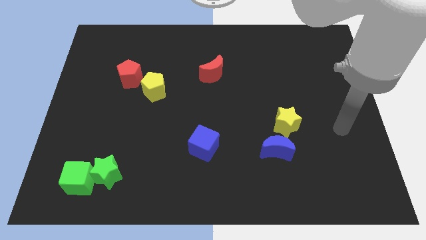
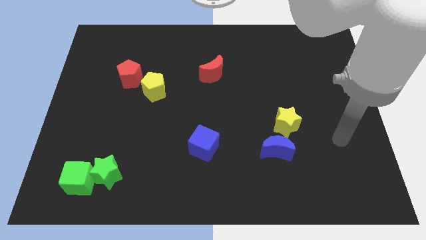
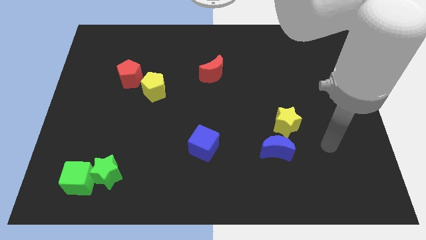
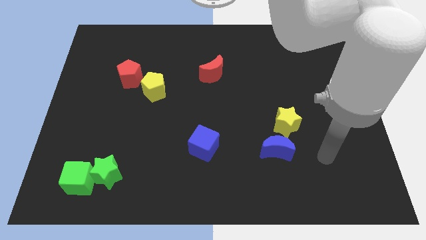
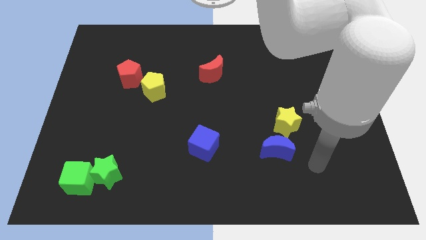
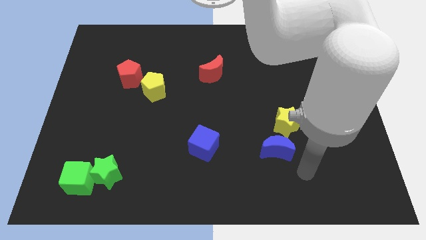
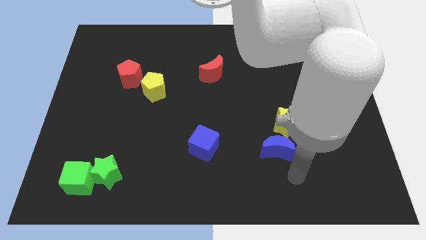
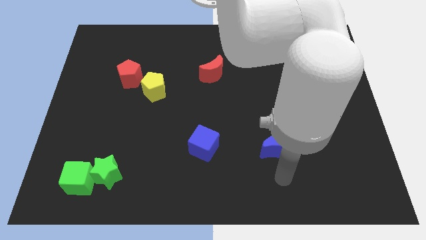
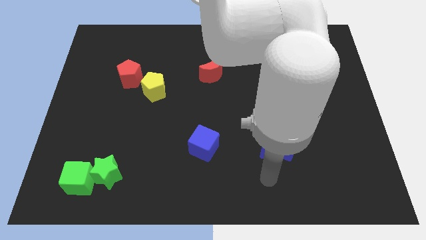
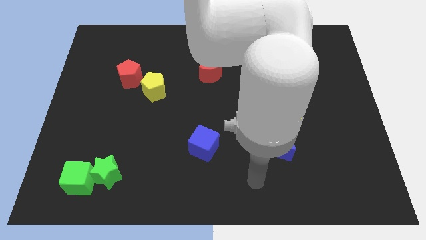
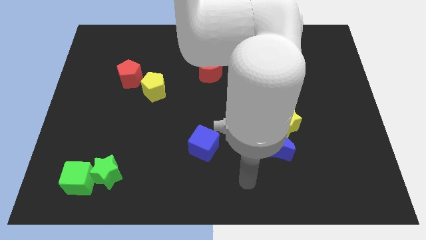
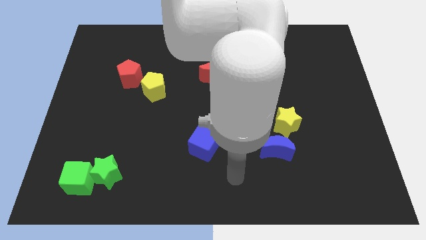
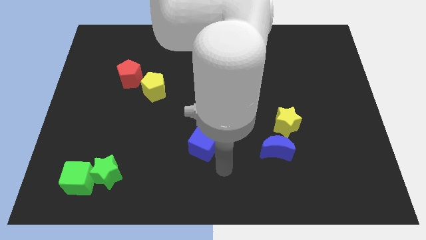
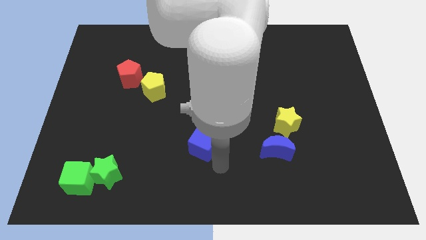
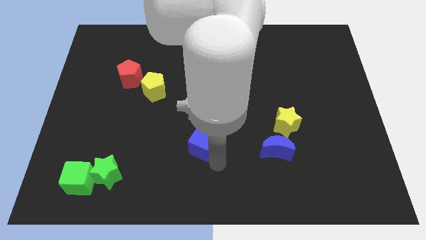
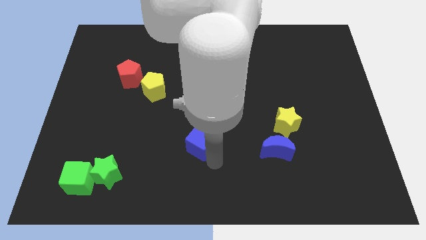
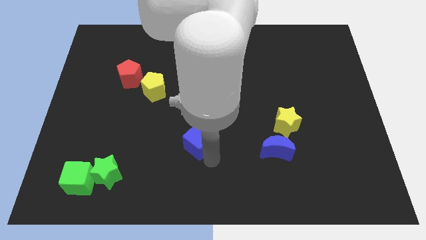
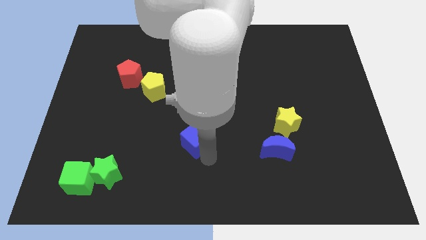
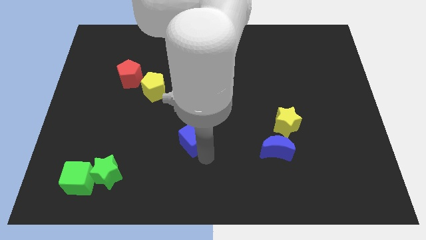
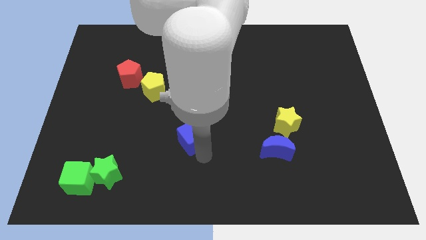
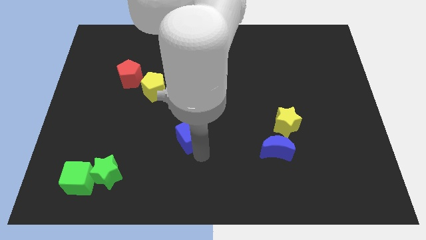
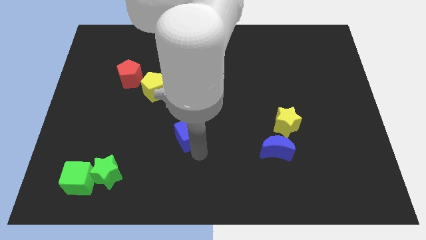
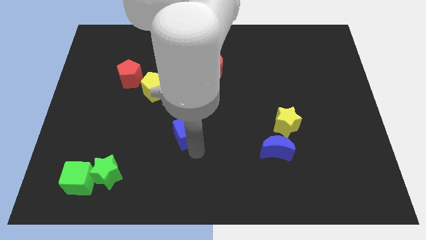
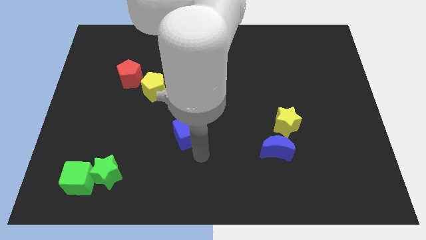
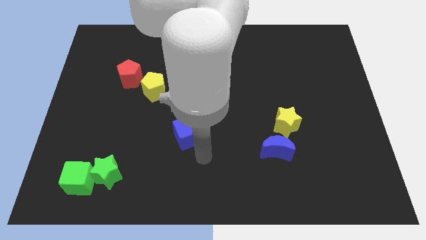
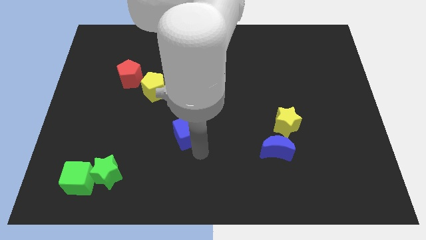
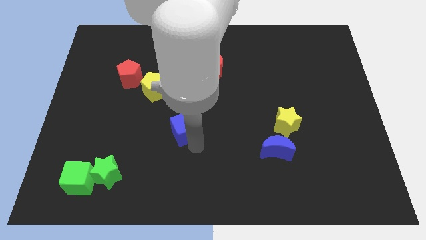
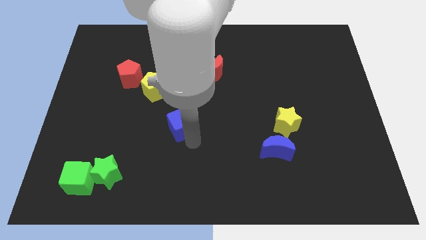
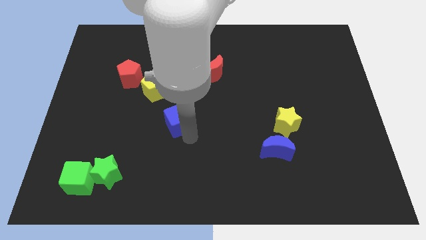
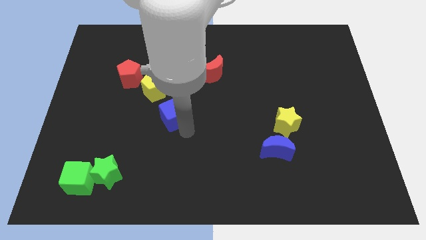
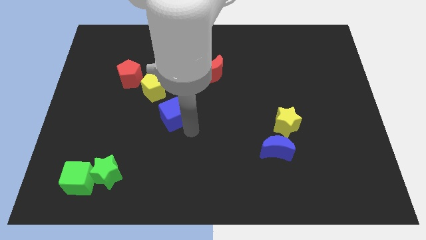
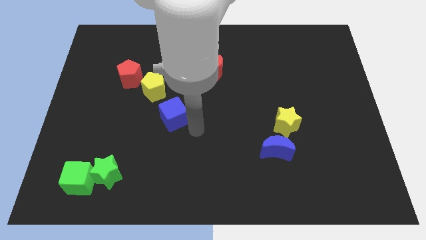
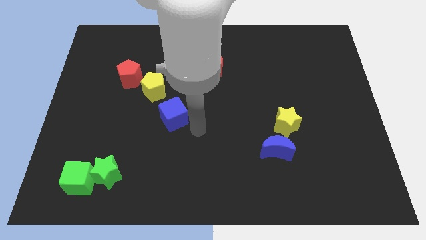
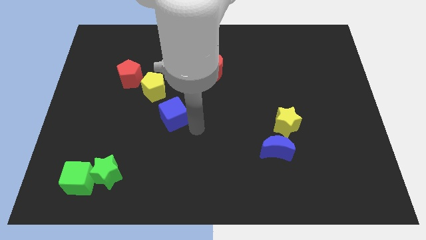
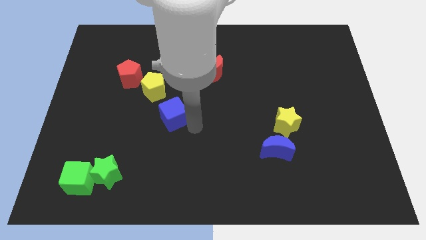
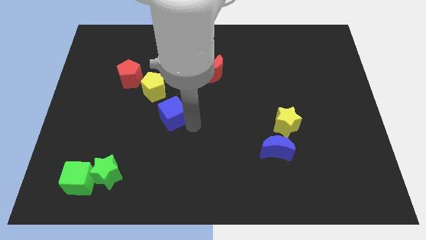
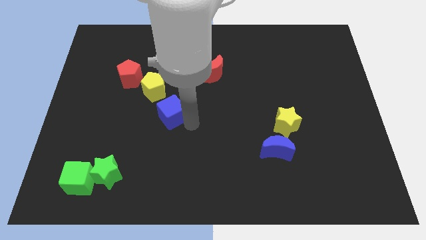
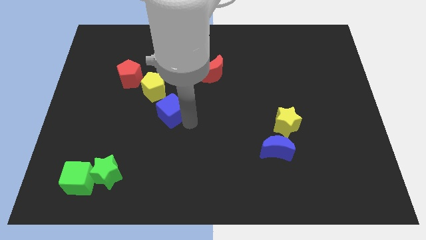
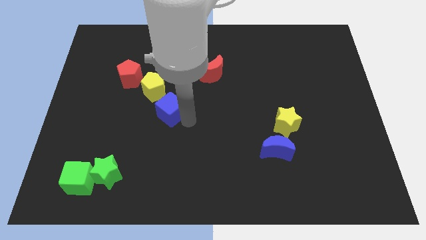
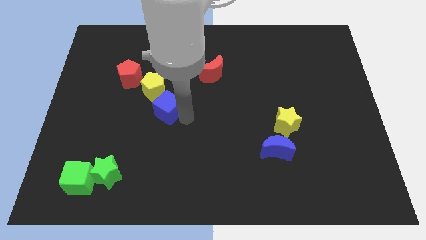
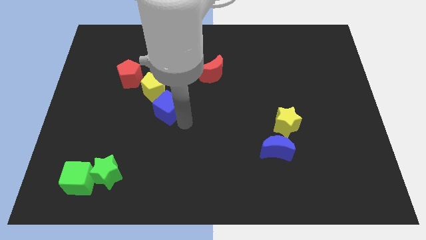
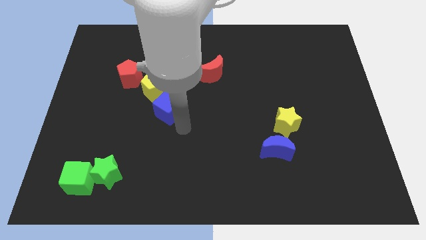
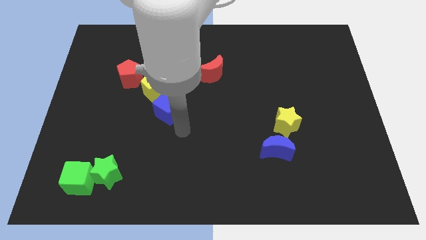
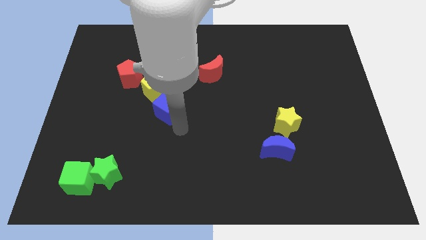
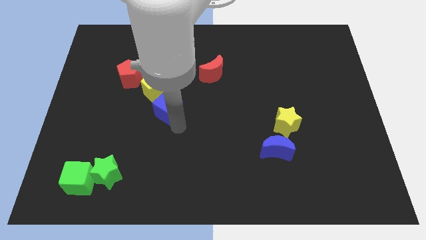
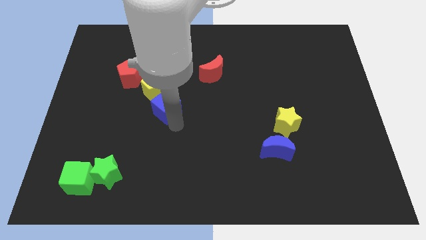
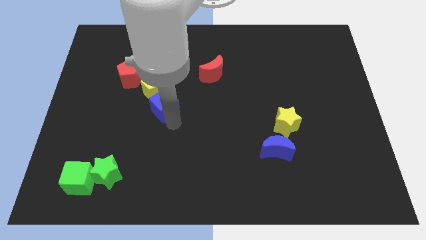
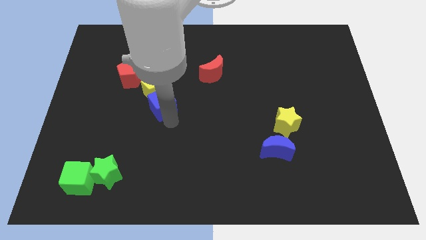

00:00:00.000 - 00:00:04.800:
put the blue cube to the yellow pentagon

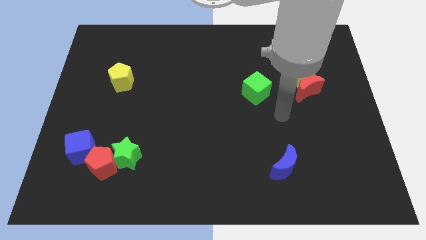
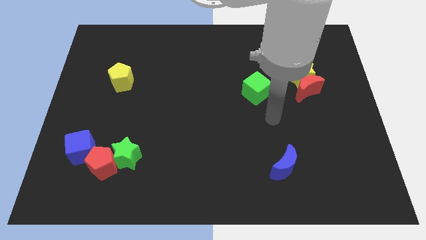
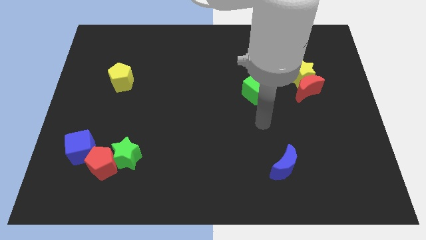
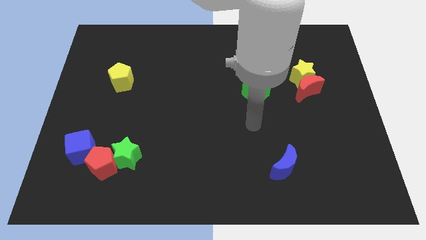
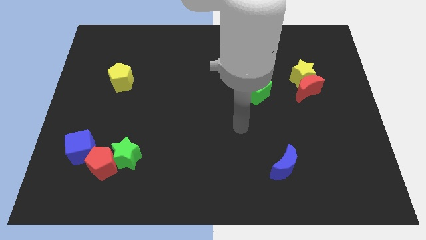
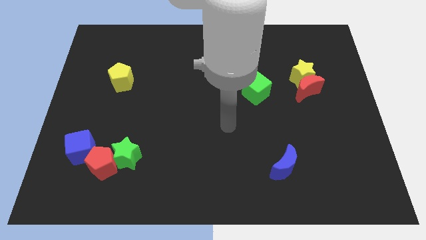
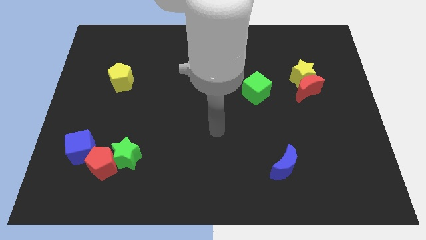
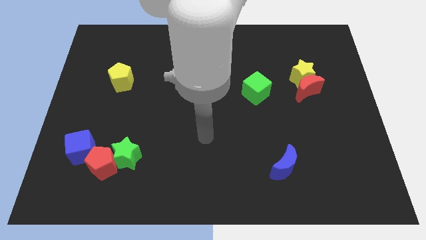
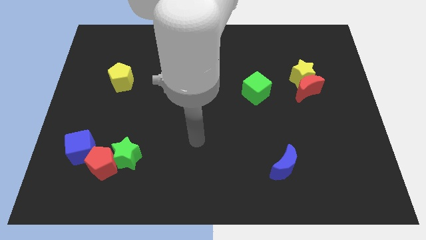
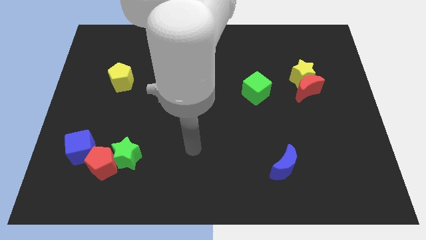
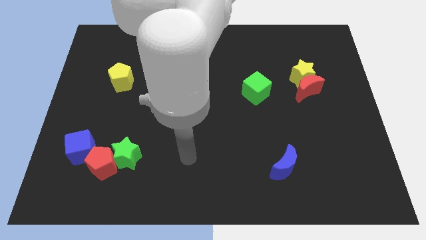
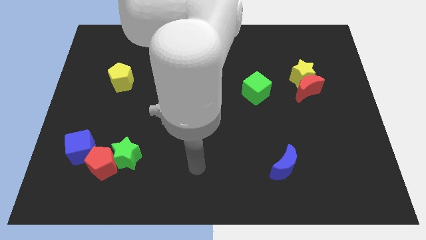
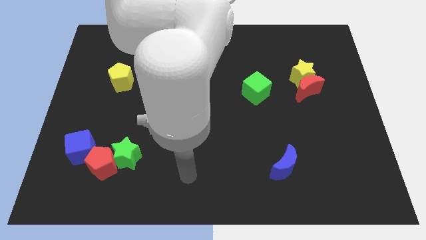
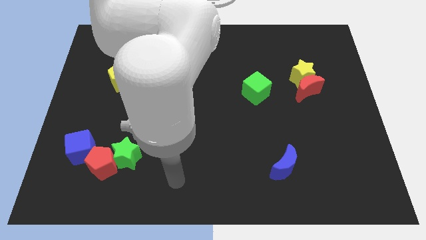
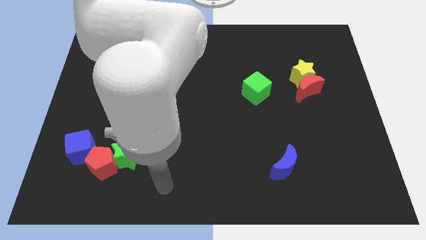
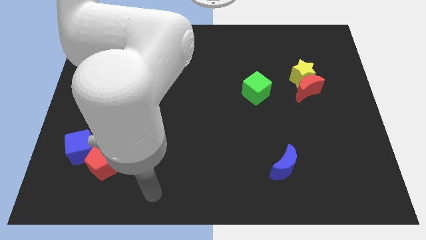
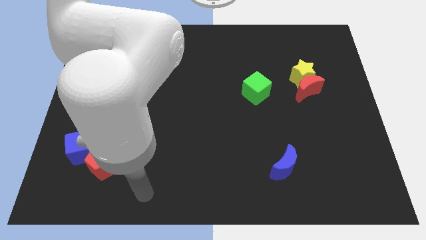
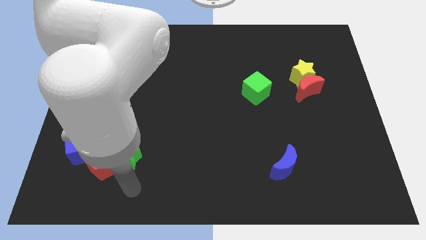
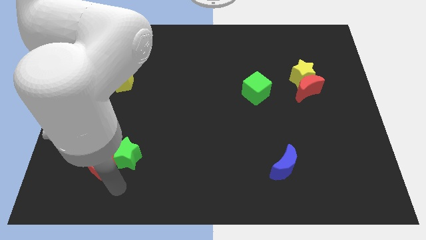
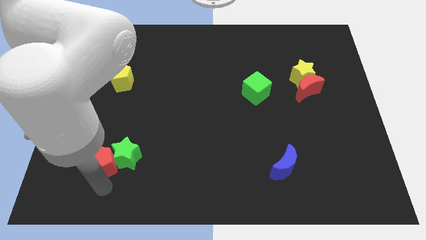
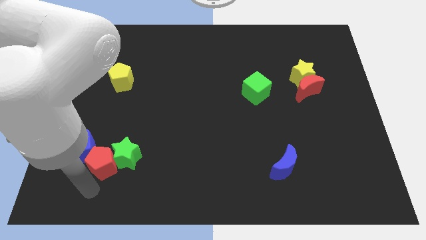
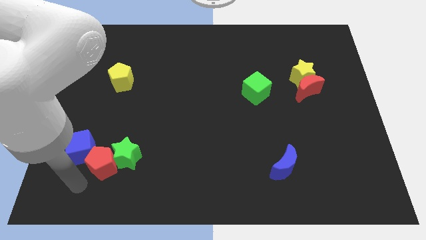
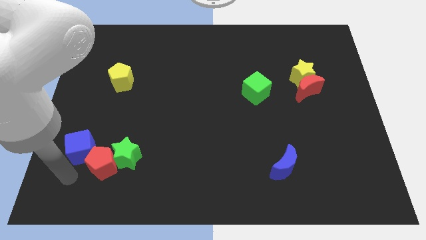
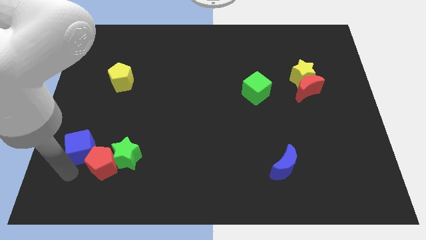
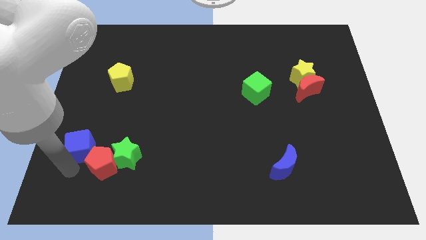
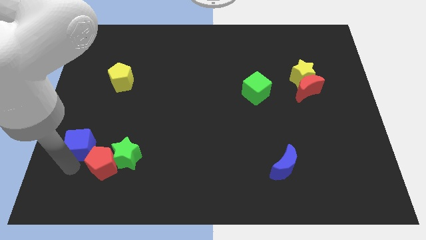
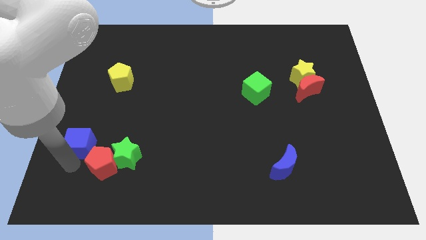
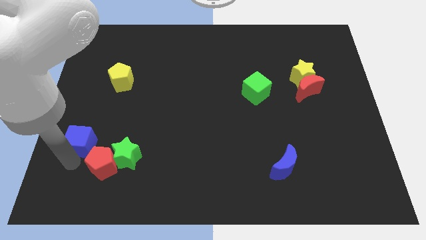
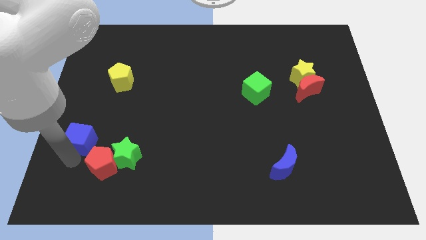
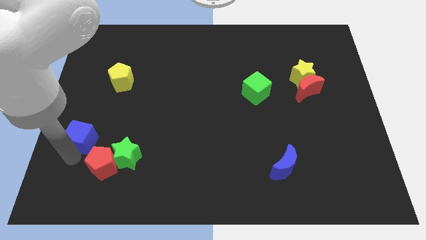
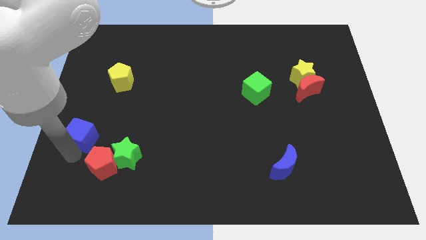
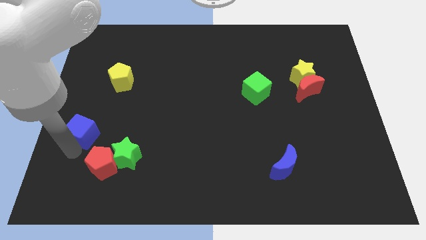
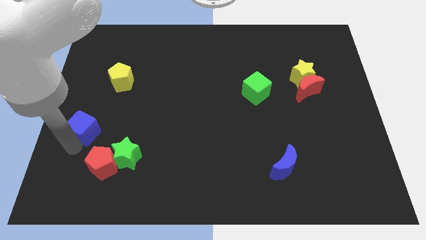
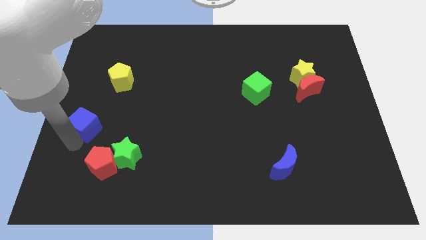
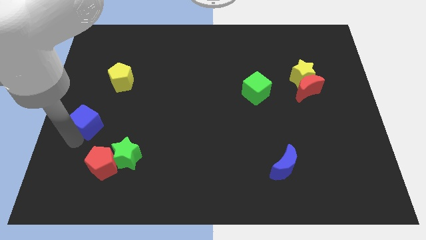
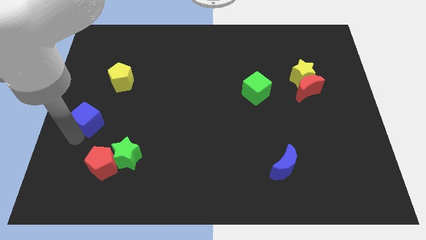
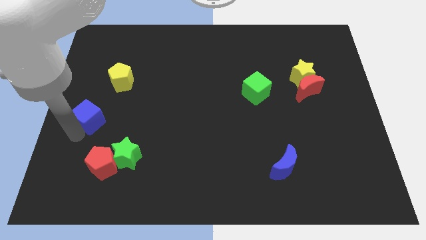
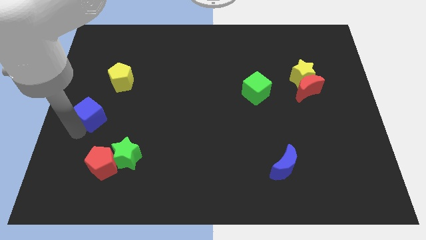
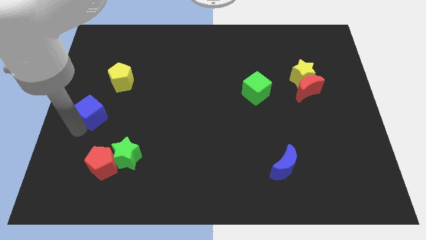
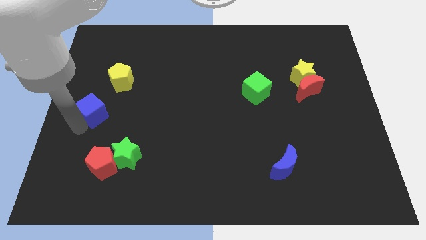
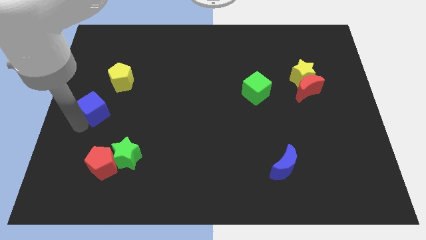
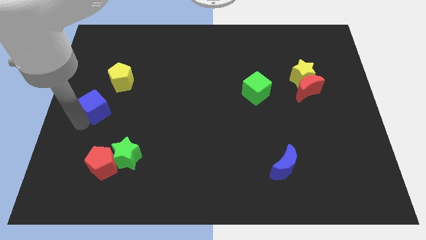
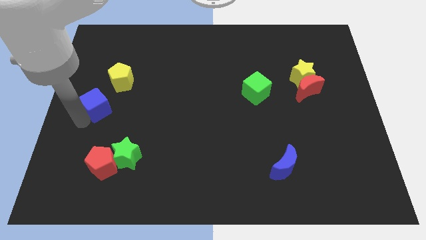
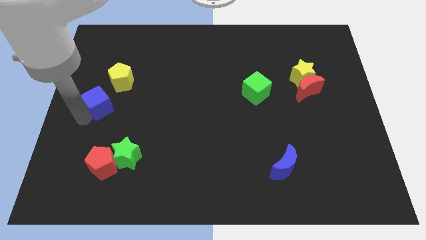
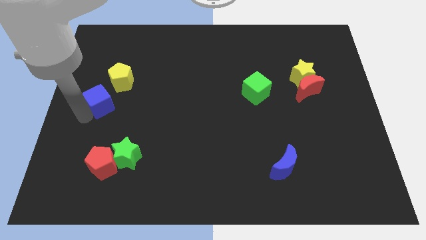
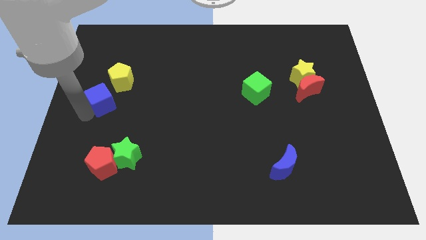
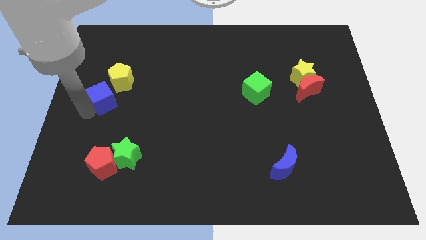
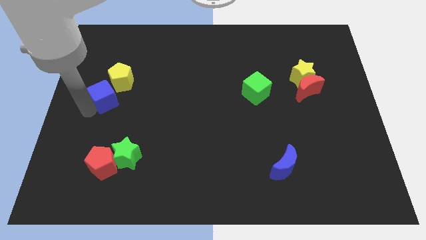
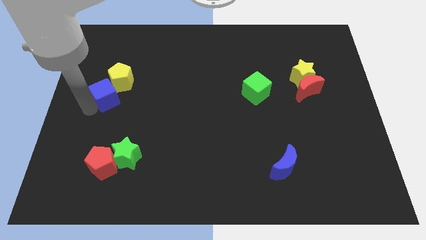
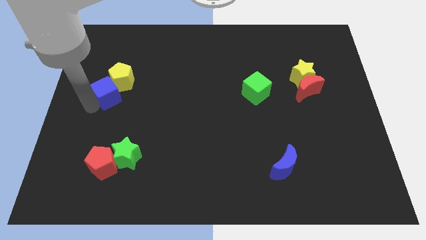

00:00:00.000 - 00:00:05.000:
push the blue cube towards the yellow pentagon
